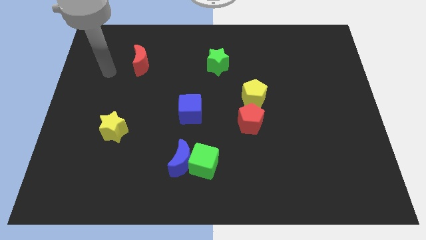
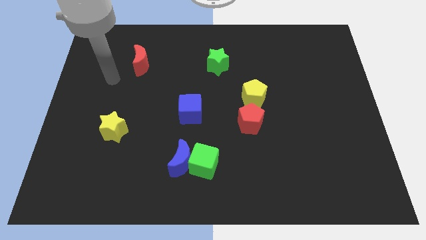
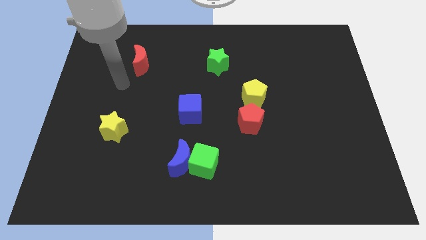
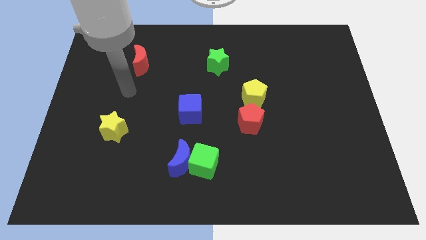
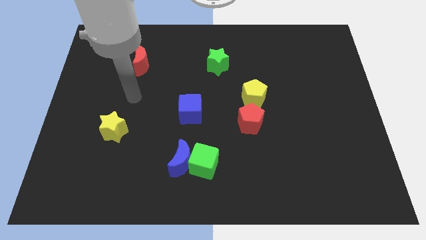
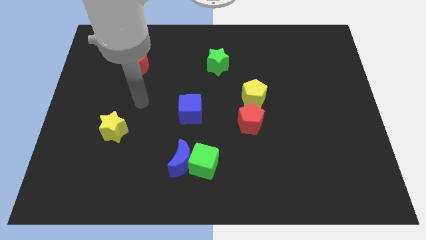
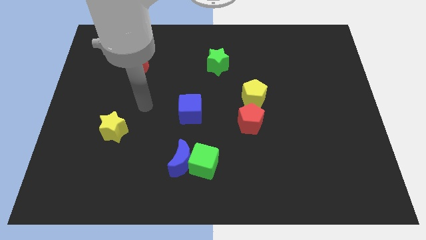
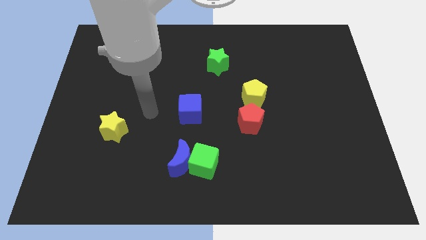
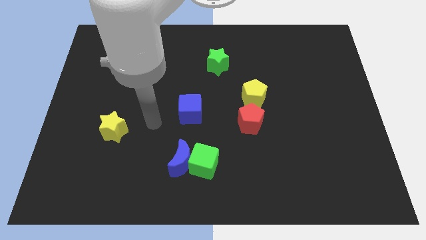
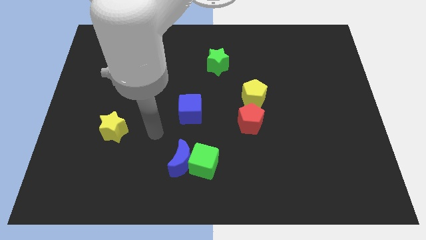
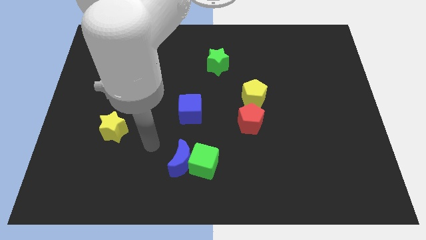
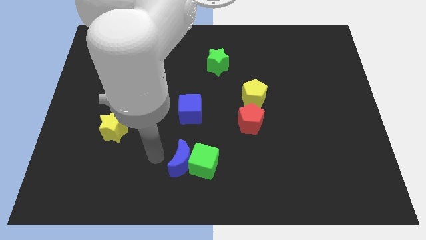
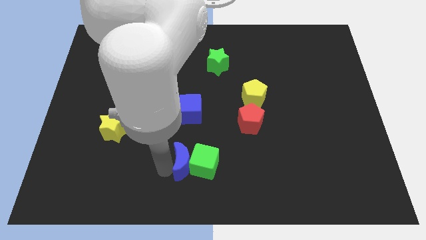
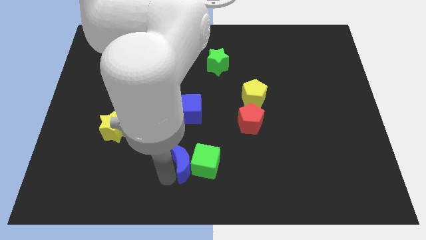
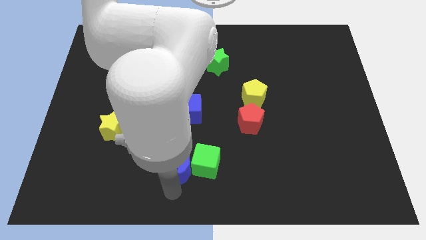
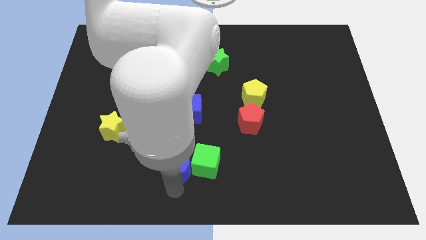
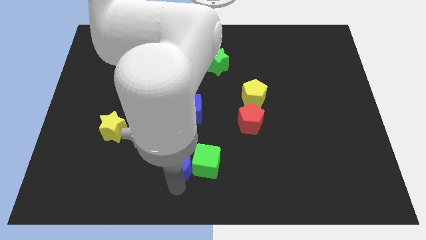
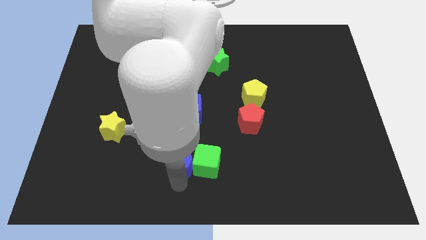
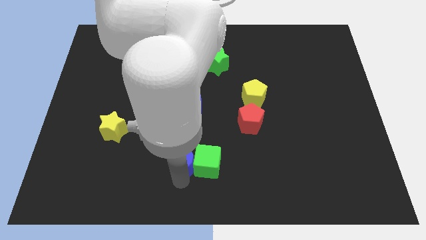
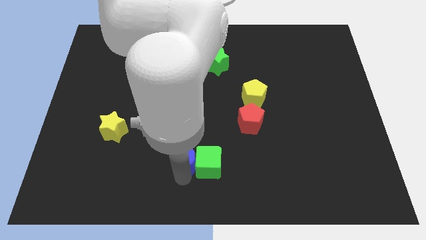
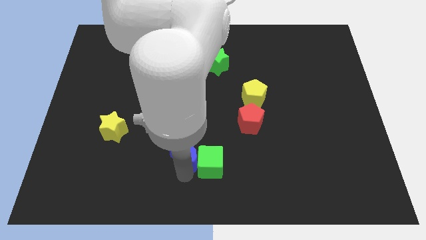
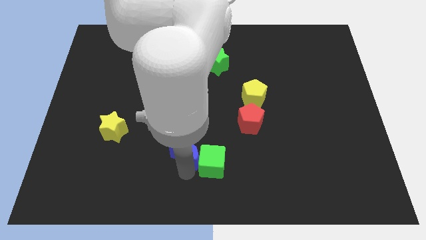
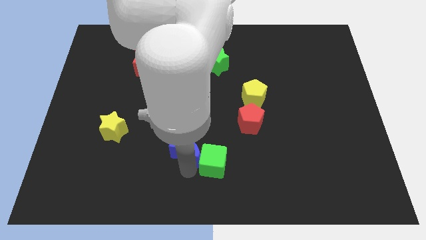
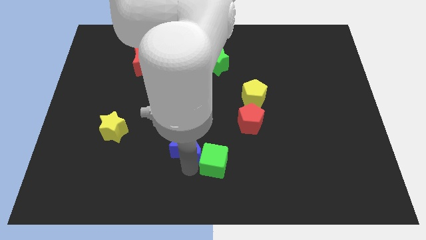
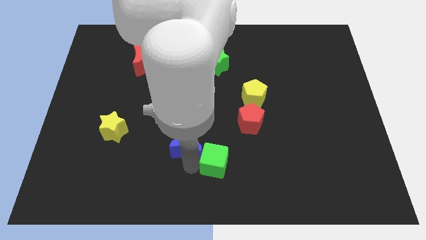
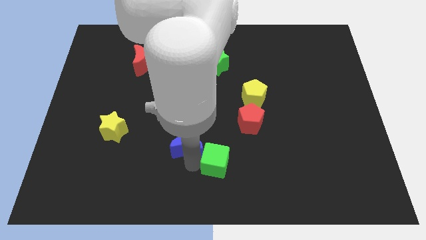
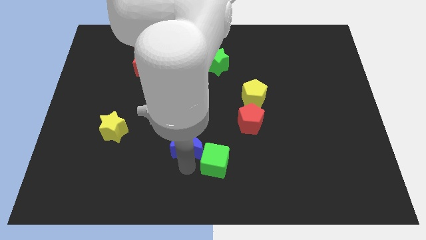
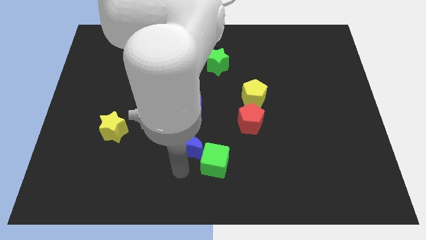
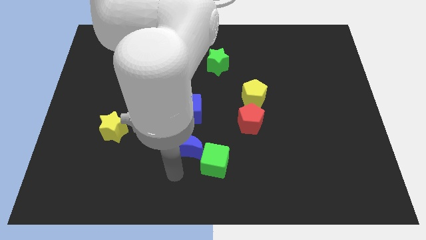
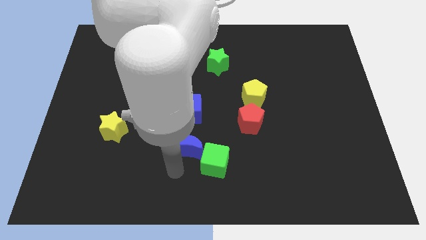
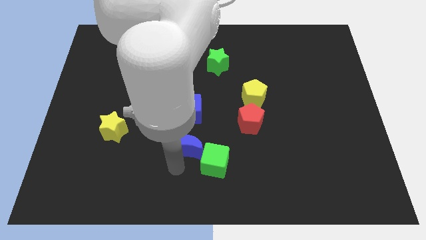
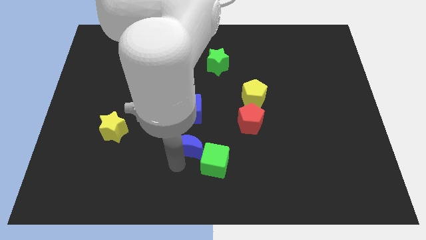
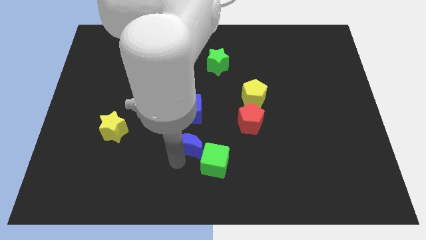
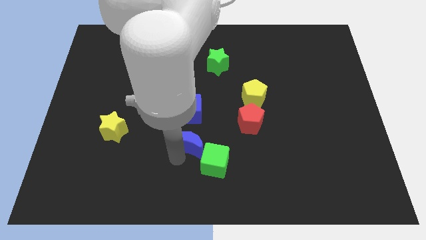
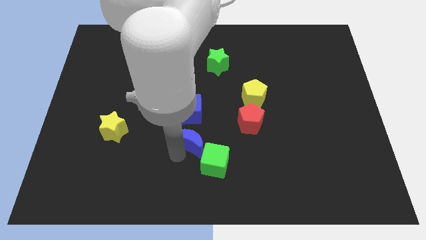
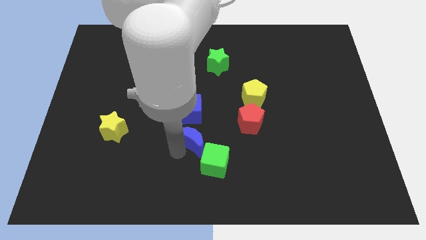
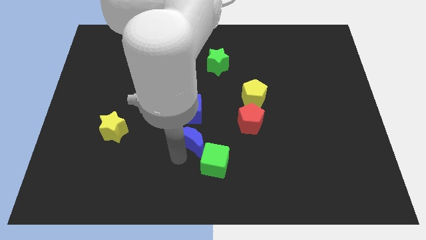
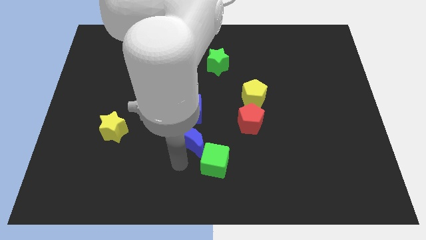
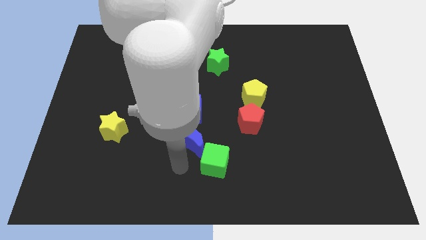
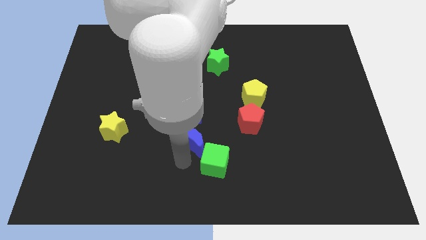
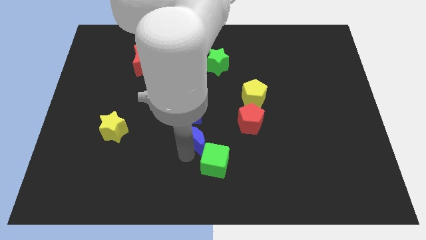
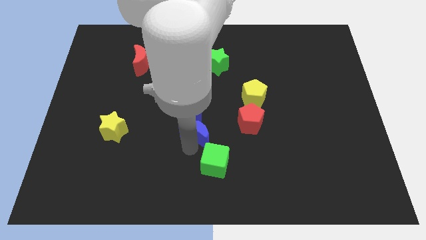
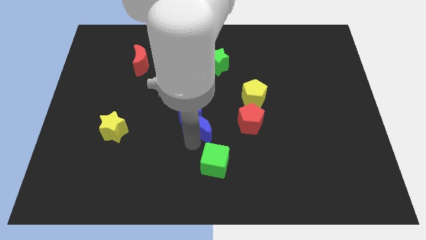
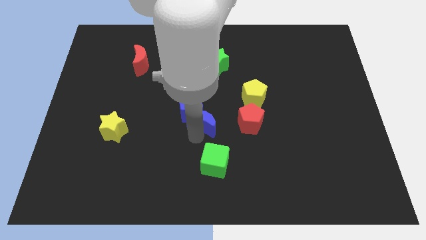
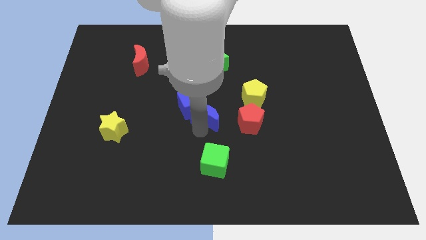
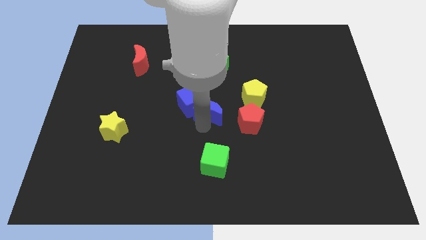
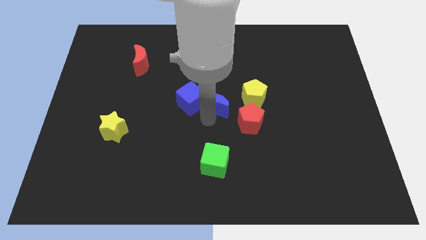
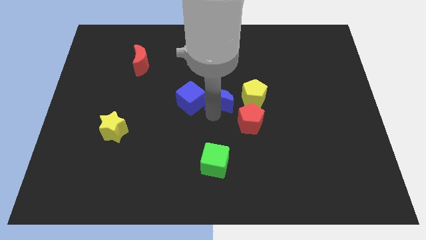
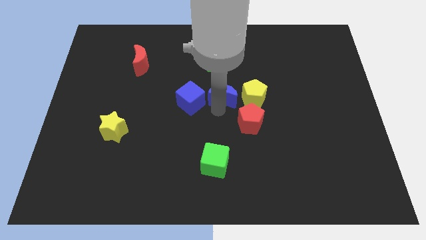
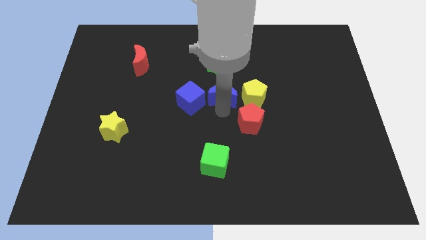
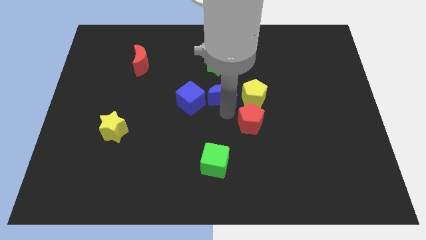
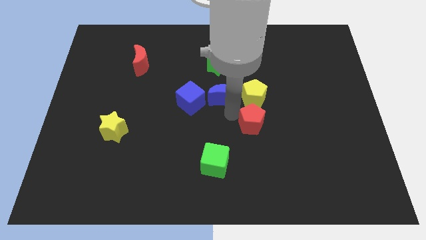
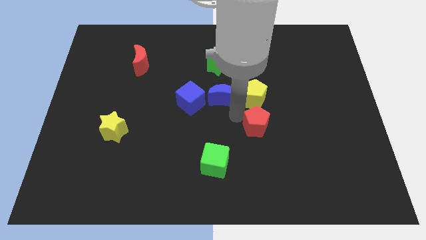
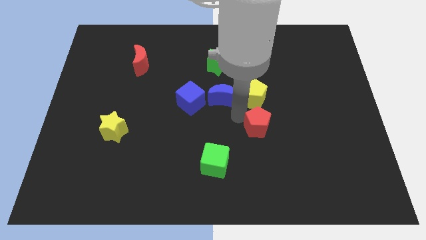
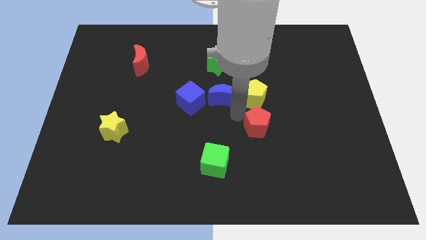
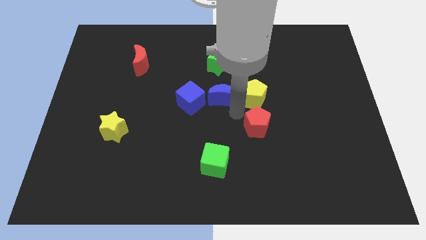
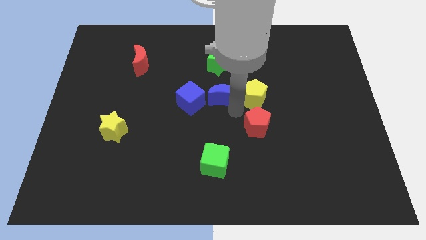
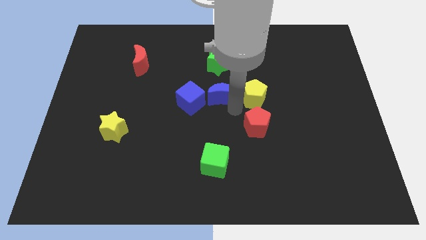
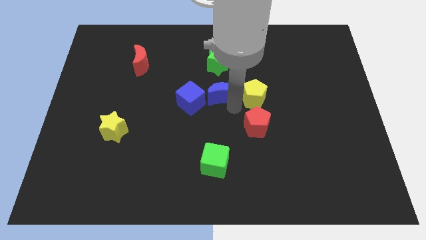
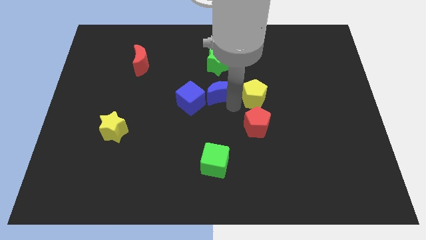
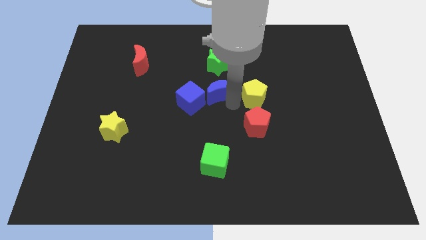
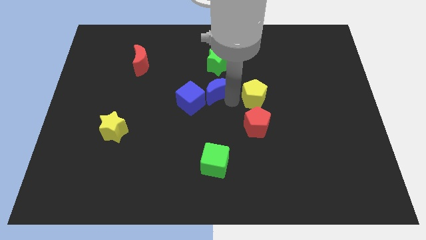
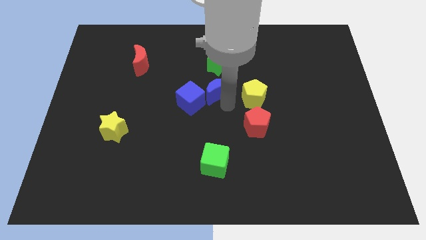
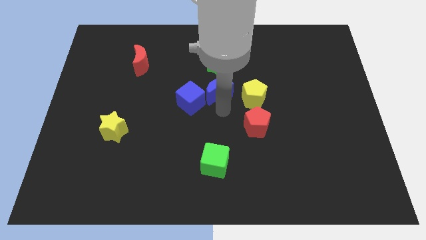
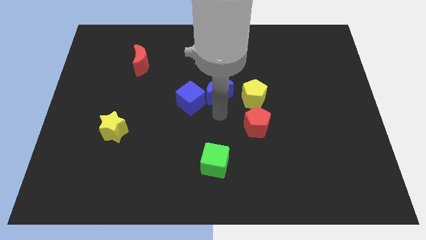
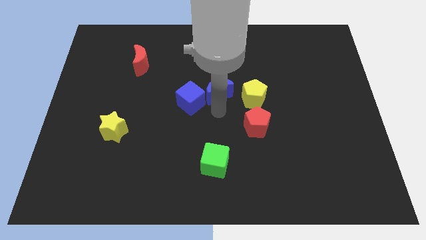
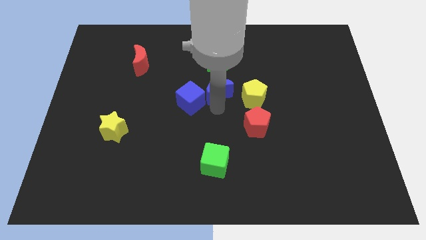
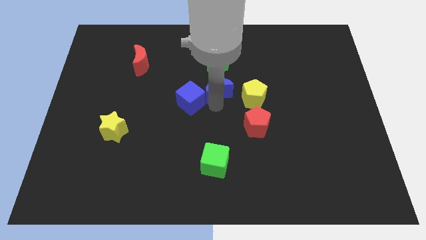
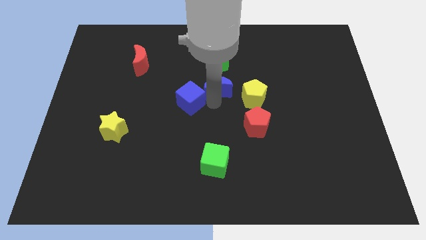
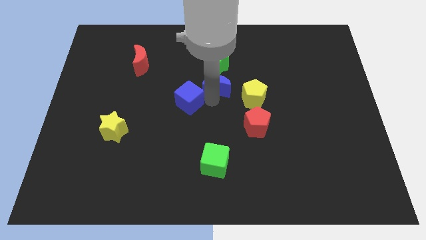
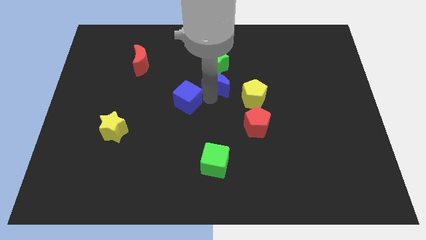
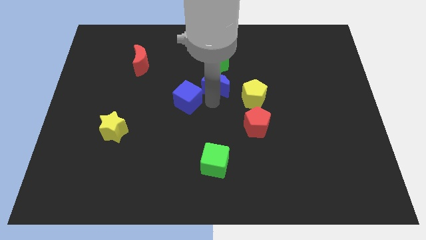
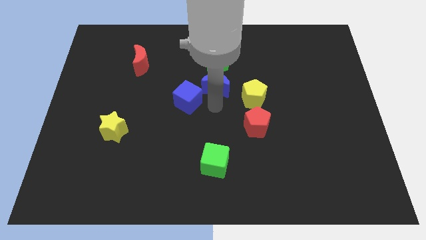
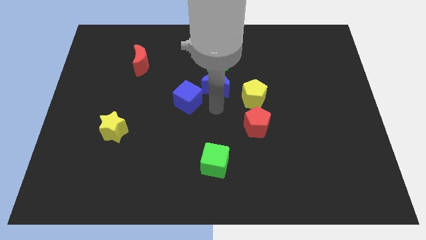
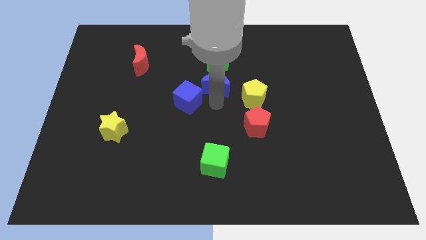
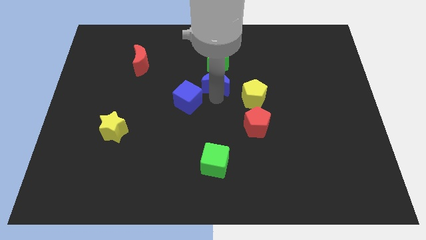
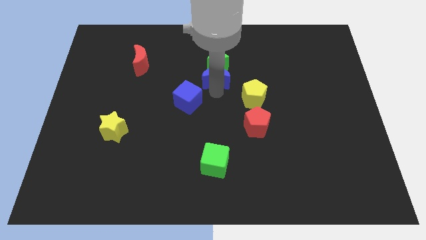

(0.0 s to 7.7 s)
put the blue moon next to the green star
